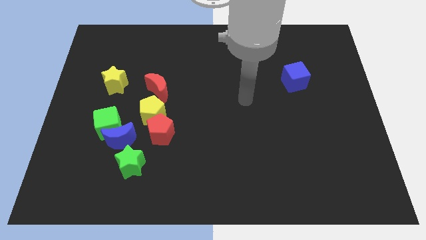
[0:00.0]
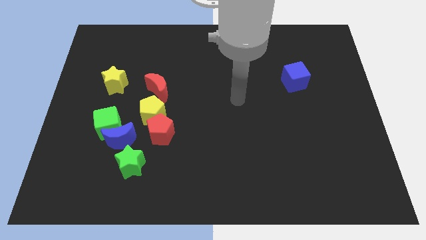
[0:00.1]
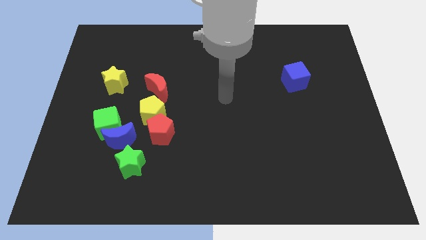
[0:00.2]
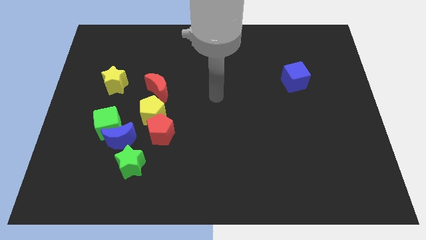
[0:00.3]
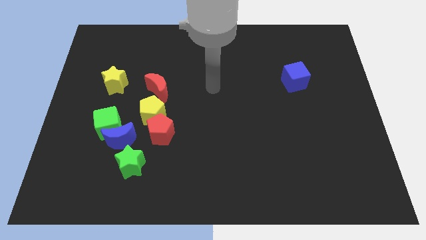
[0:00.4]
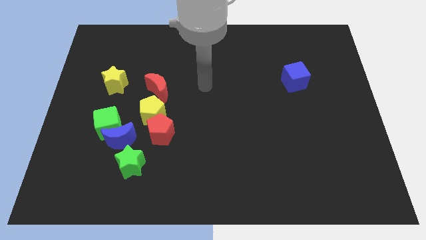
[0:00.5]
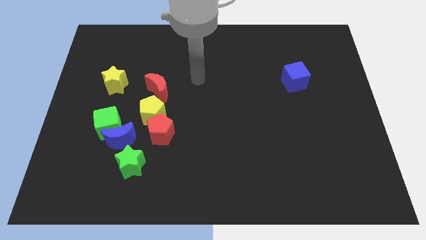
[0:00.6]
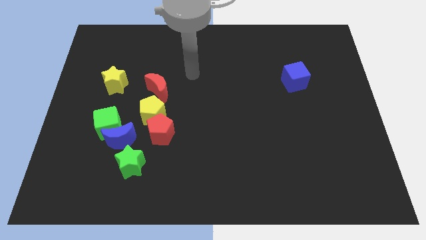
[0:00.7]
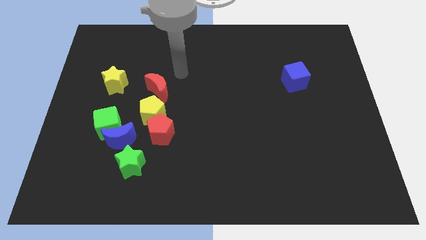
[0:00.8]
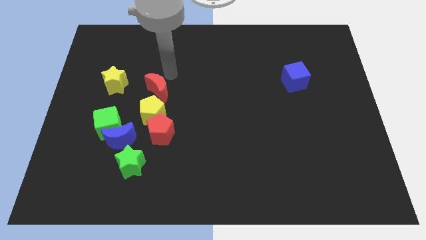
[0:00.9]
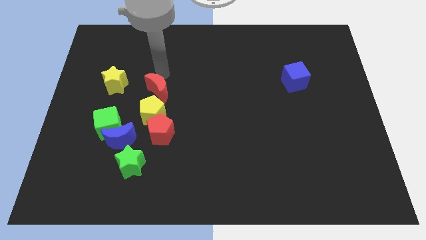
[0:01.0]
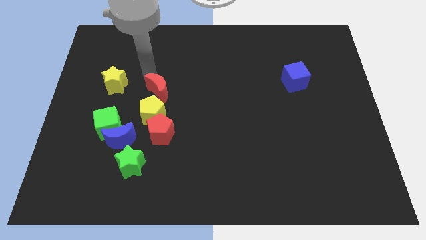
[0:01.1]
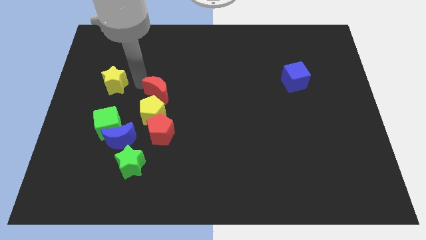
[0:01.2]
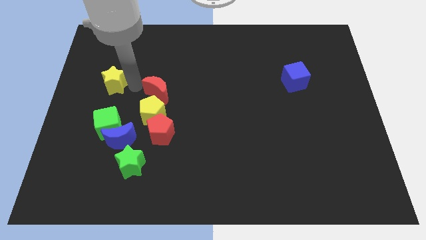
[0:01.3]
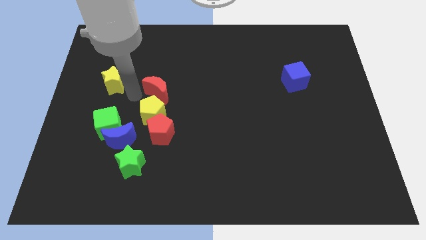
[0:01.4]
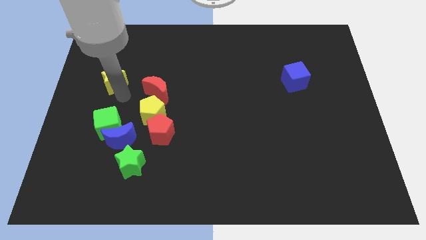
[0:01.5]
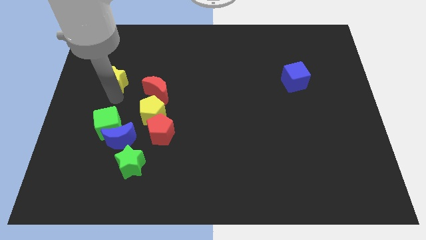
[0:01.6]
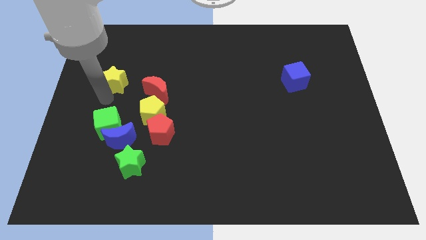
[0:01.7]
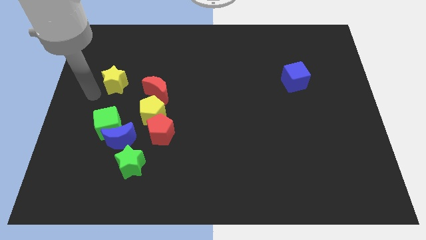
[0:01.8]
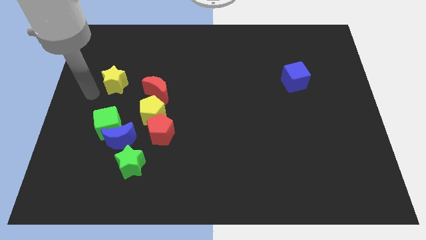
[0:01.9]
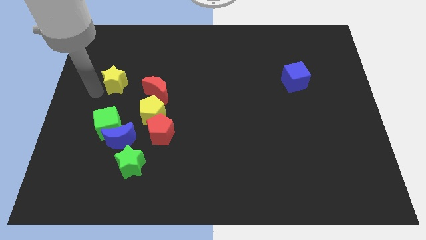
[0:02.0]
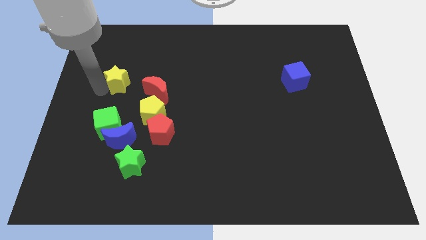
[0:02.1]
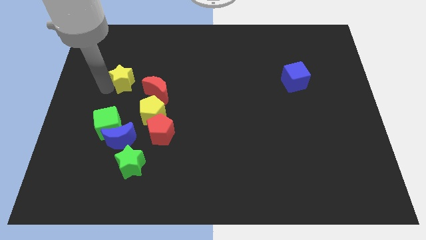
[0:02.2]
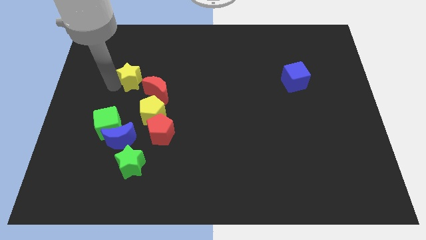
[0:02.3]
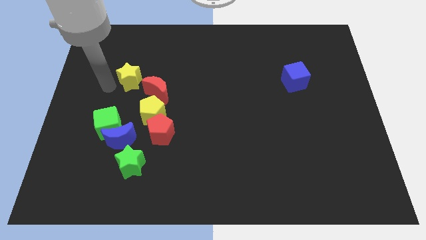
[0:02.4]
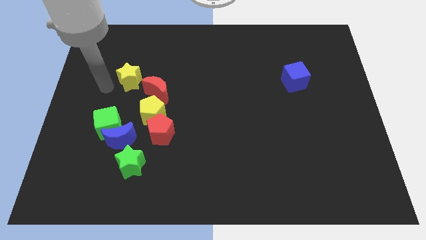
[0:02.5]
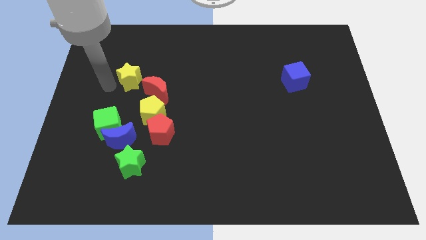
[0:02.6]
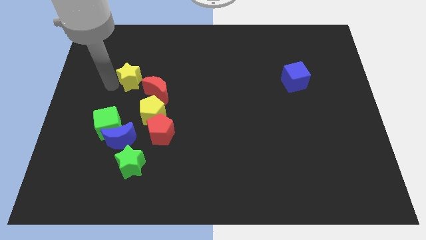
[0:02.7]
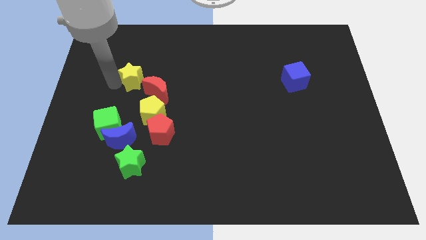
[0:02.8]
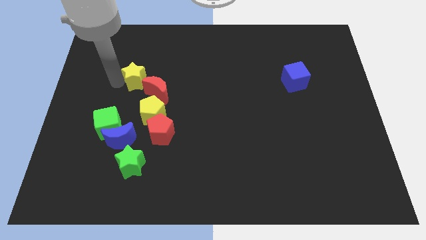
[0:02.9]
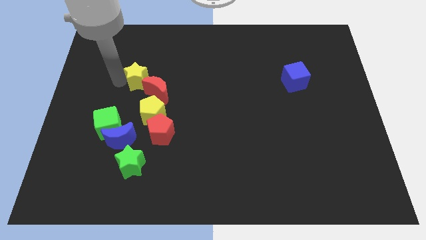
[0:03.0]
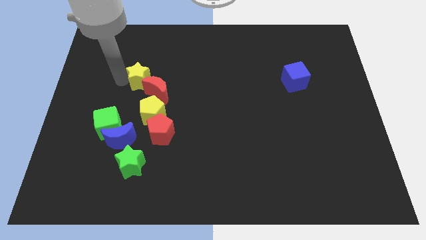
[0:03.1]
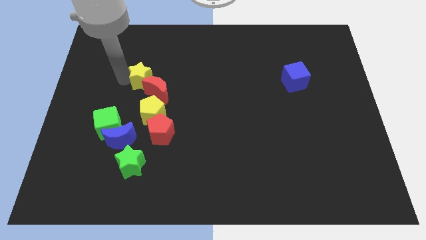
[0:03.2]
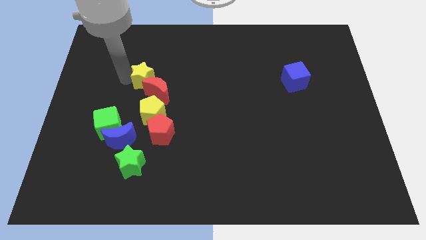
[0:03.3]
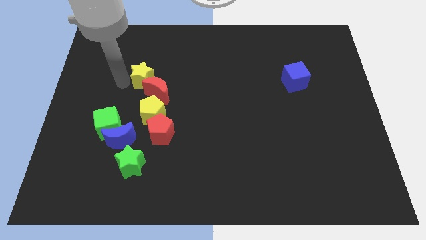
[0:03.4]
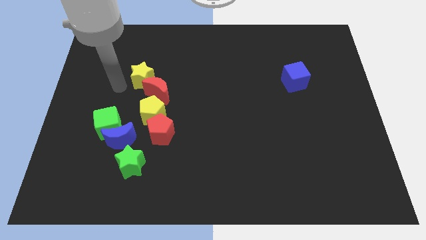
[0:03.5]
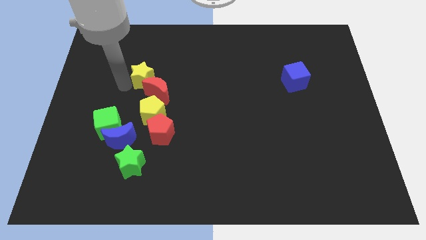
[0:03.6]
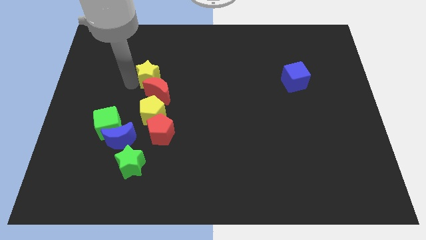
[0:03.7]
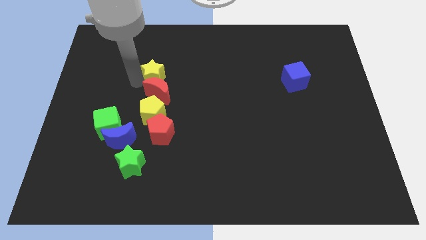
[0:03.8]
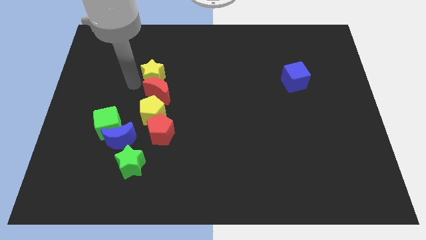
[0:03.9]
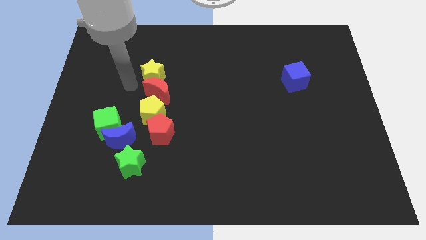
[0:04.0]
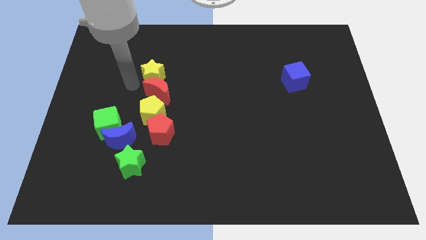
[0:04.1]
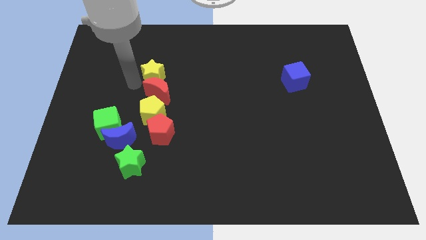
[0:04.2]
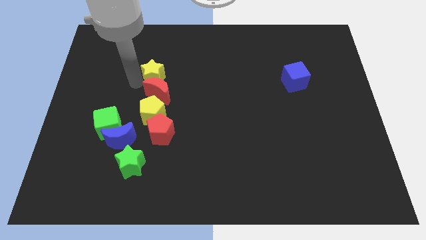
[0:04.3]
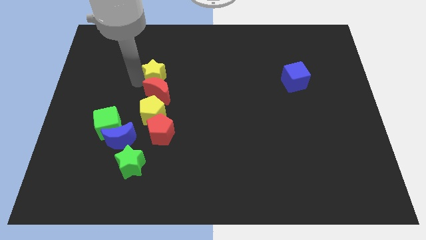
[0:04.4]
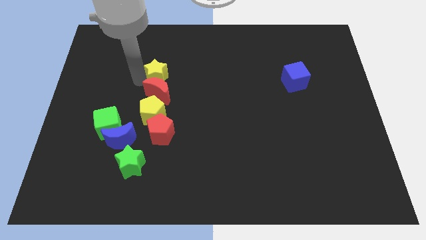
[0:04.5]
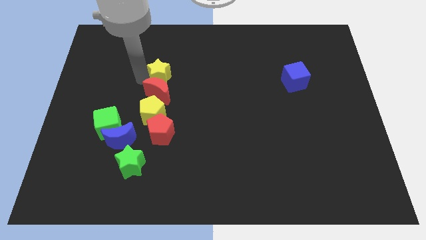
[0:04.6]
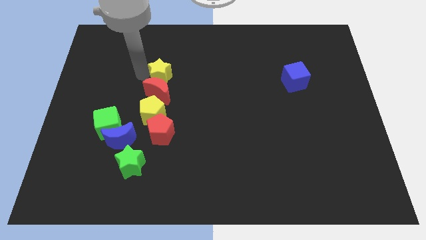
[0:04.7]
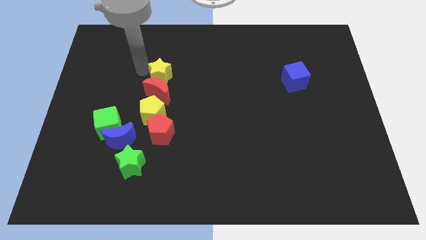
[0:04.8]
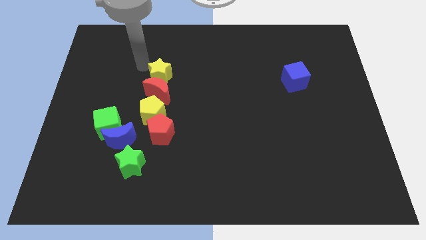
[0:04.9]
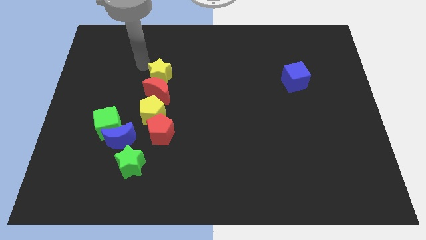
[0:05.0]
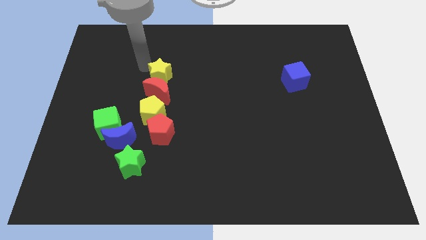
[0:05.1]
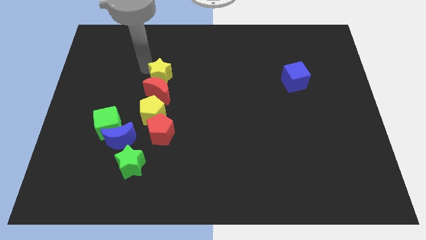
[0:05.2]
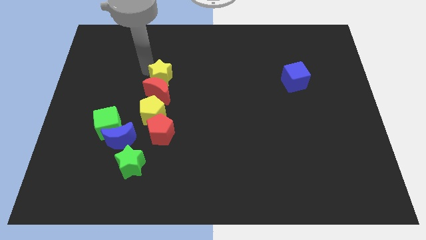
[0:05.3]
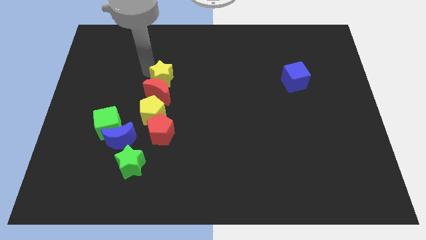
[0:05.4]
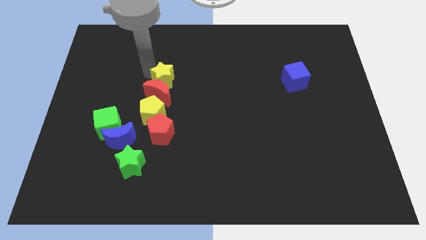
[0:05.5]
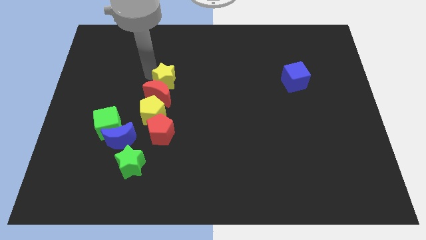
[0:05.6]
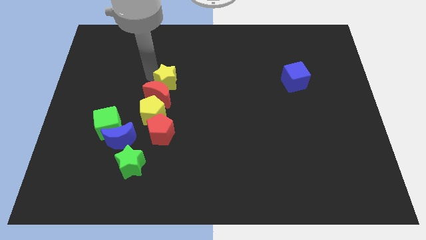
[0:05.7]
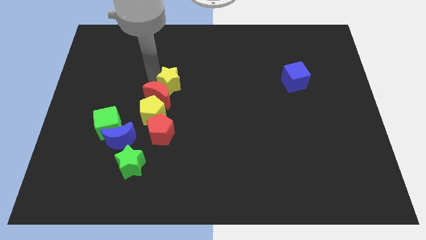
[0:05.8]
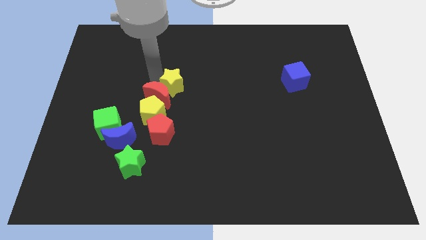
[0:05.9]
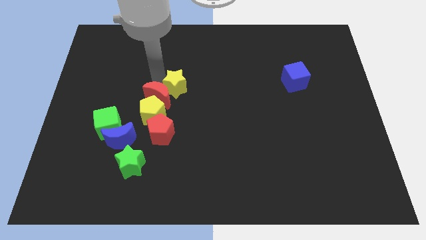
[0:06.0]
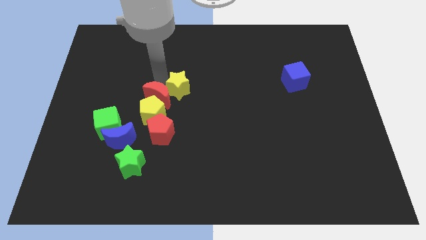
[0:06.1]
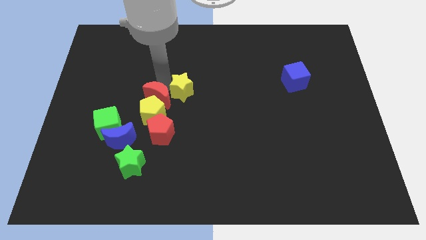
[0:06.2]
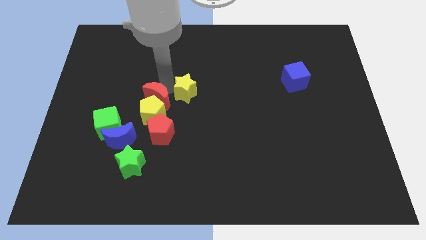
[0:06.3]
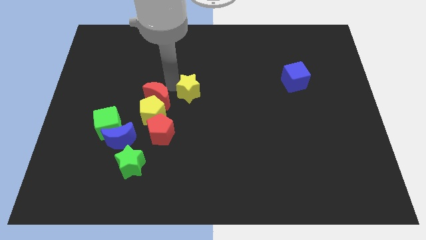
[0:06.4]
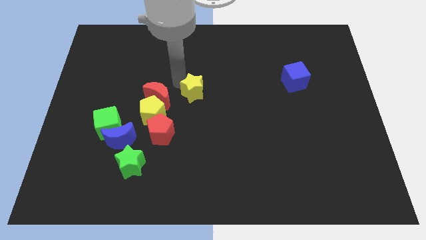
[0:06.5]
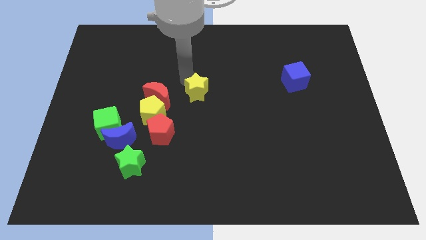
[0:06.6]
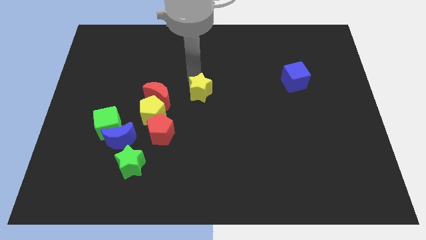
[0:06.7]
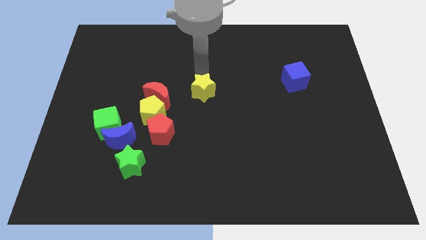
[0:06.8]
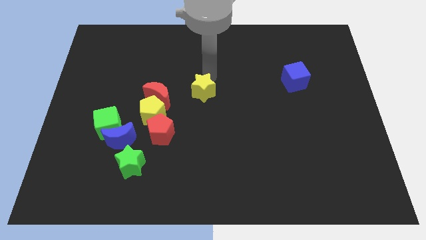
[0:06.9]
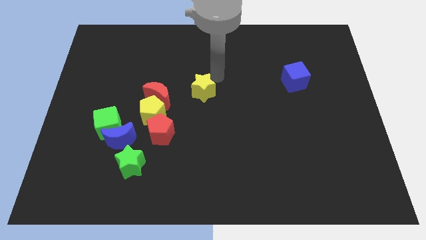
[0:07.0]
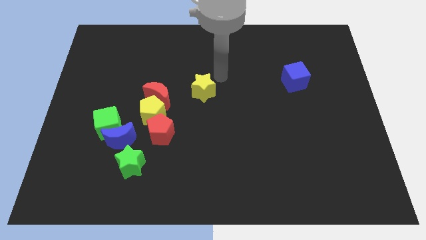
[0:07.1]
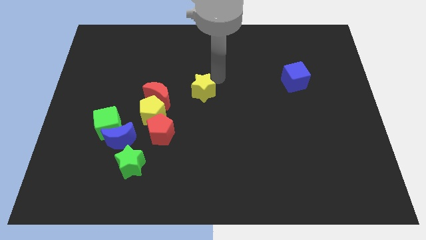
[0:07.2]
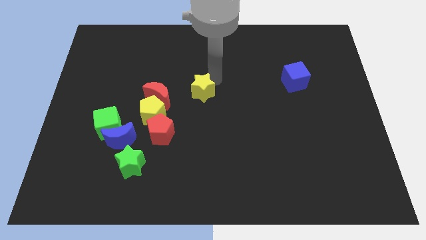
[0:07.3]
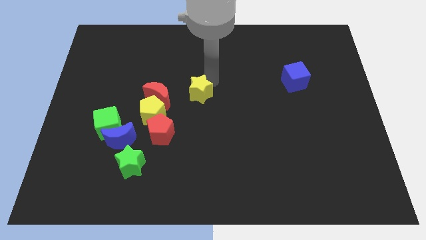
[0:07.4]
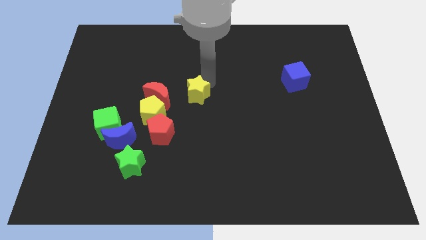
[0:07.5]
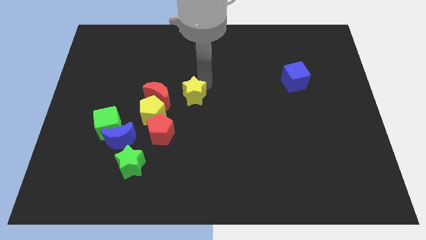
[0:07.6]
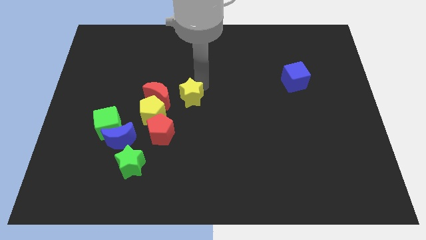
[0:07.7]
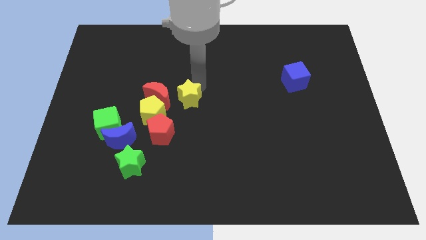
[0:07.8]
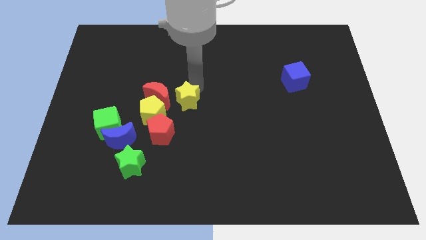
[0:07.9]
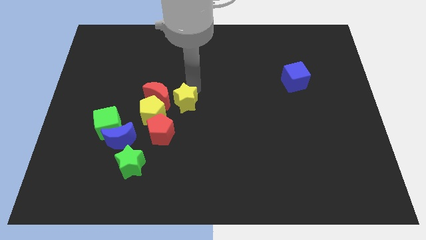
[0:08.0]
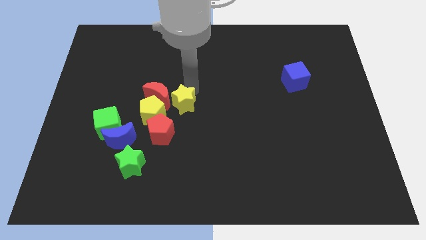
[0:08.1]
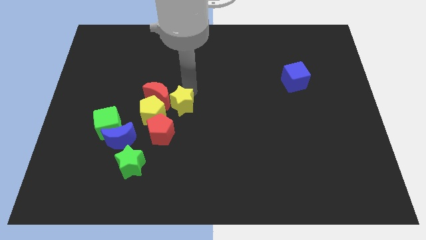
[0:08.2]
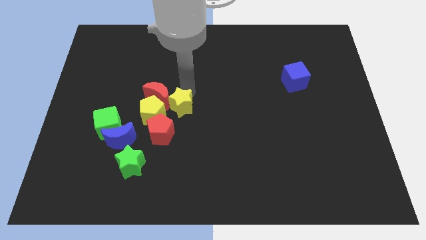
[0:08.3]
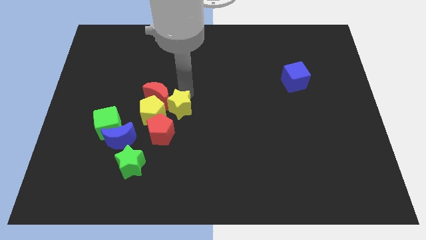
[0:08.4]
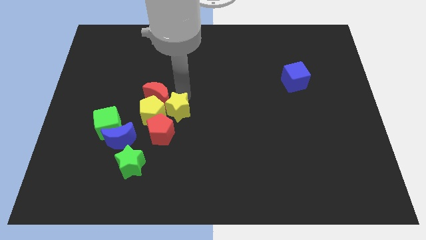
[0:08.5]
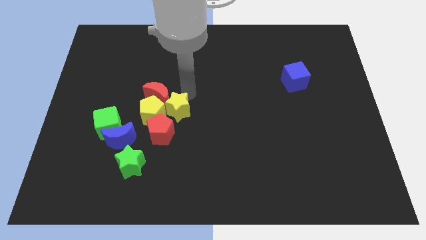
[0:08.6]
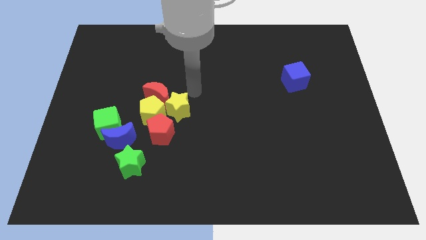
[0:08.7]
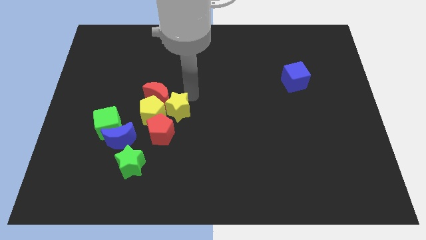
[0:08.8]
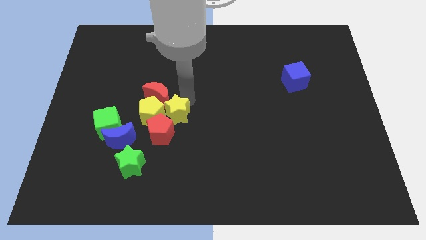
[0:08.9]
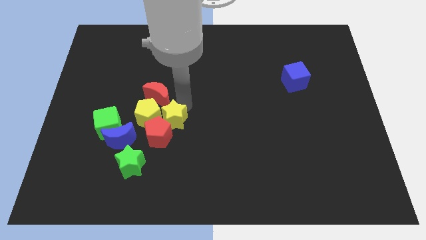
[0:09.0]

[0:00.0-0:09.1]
slide the yellow star close to the red pentagon
